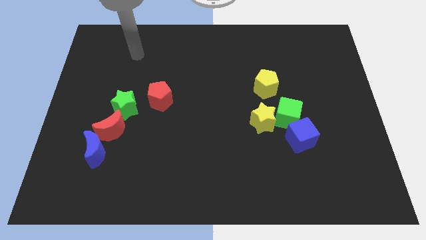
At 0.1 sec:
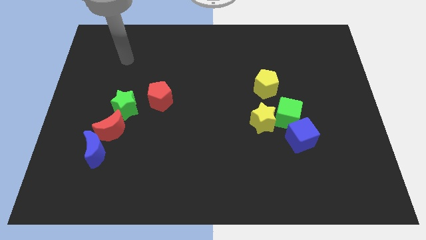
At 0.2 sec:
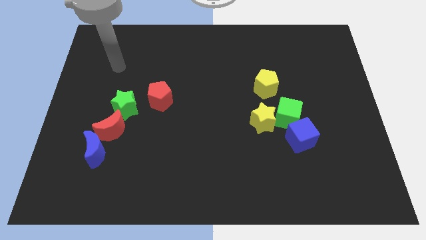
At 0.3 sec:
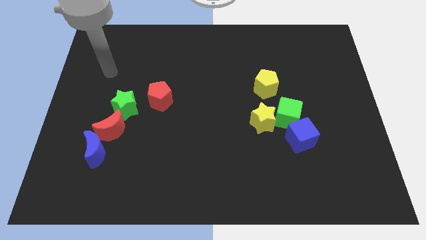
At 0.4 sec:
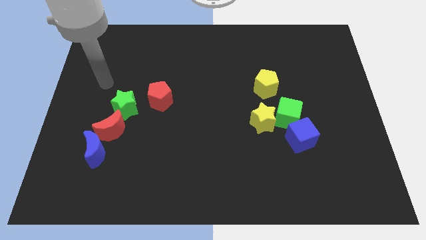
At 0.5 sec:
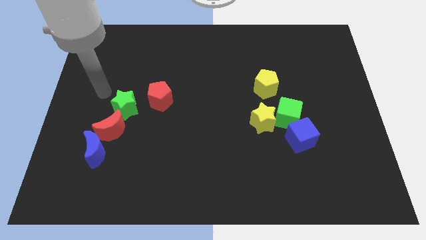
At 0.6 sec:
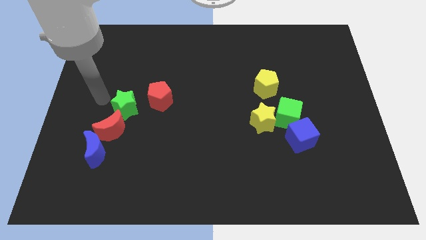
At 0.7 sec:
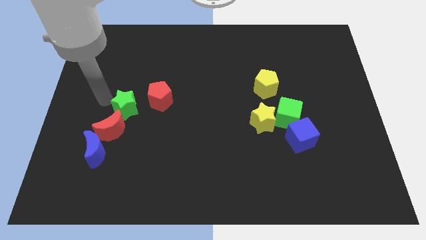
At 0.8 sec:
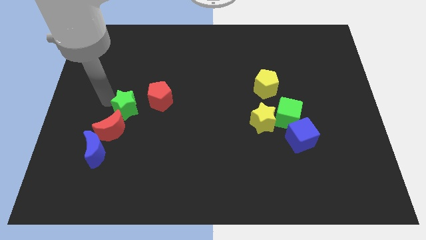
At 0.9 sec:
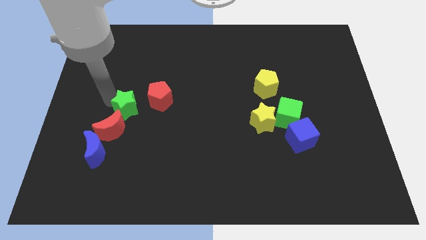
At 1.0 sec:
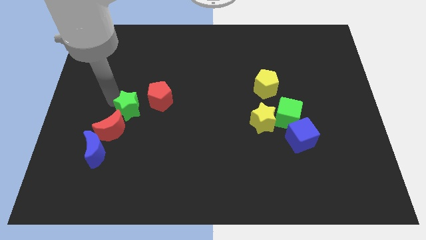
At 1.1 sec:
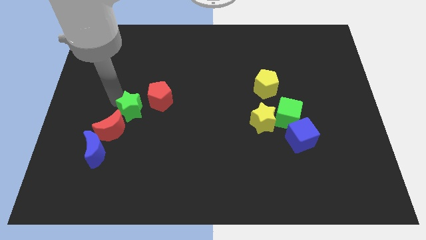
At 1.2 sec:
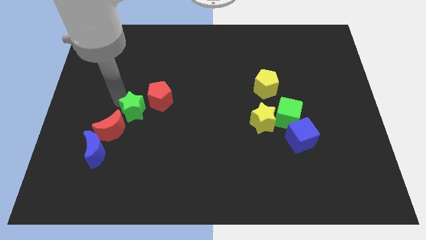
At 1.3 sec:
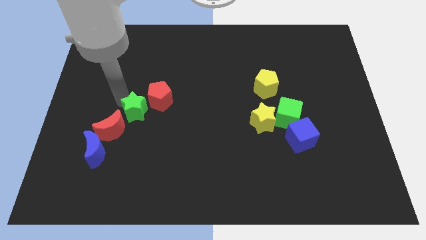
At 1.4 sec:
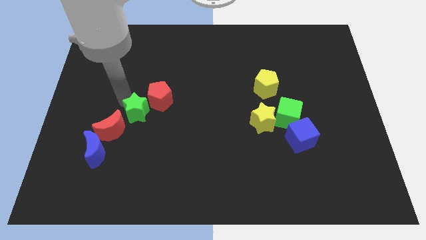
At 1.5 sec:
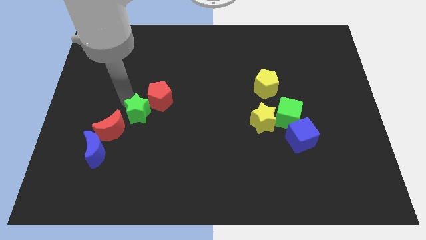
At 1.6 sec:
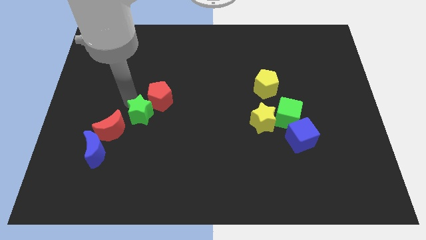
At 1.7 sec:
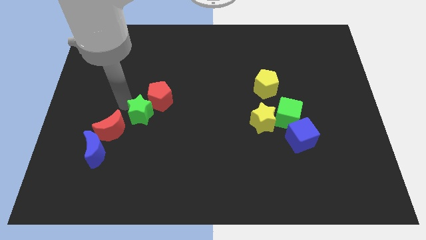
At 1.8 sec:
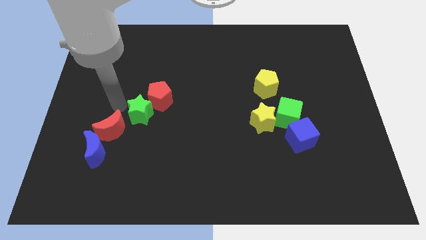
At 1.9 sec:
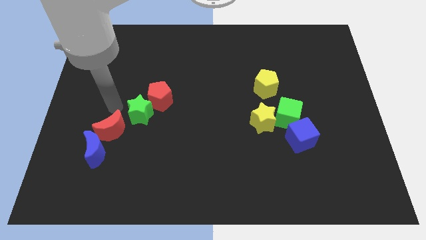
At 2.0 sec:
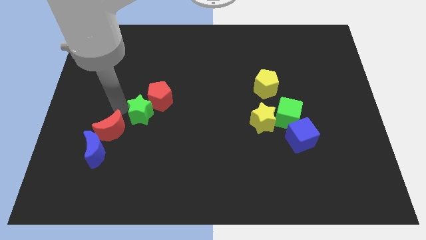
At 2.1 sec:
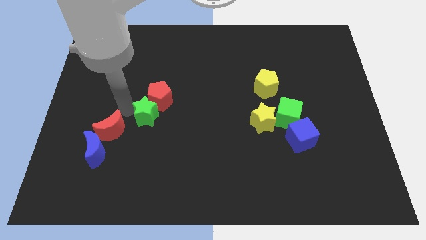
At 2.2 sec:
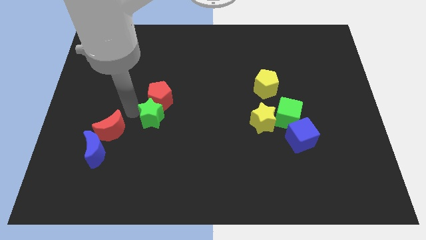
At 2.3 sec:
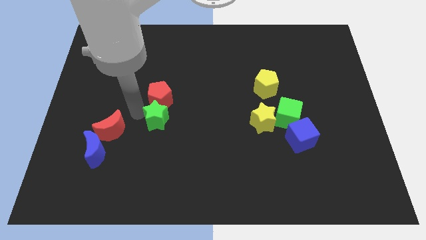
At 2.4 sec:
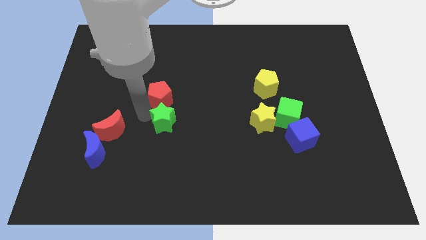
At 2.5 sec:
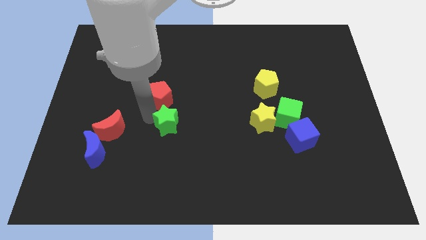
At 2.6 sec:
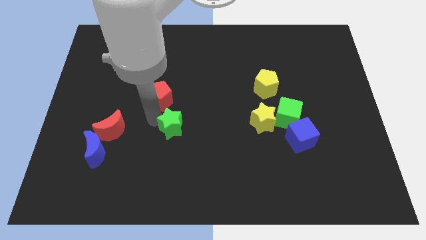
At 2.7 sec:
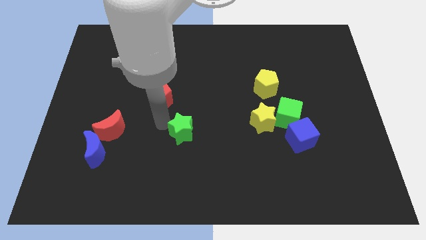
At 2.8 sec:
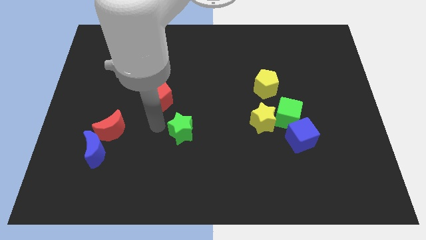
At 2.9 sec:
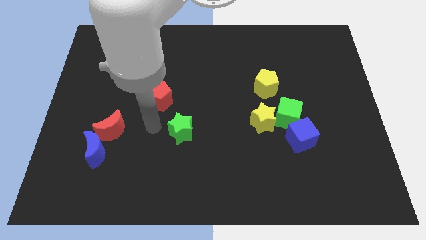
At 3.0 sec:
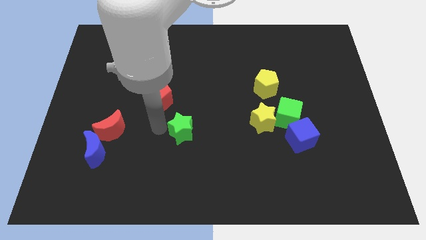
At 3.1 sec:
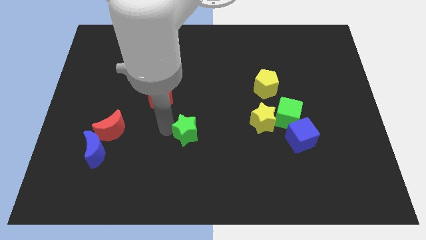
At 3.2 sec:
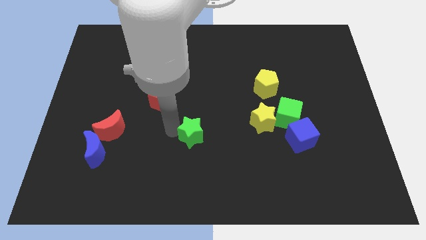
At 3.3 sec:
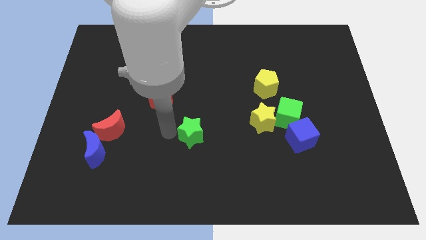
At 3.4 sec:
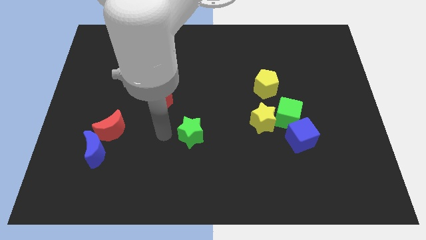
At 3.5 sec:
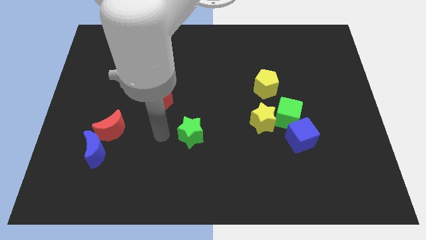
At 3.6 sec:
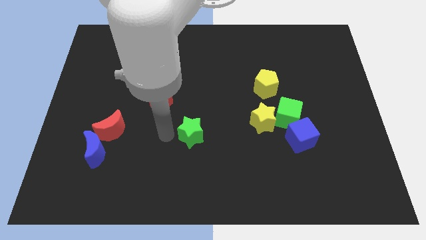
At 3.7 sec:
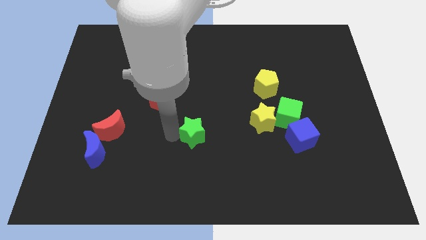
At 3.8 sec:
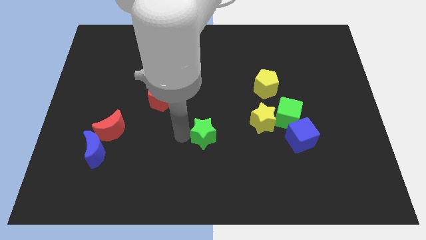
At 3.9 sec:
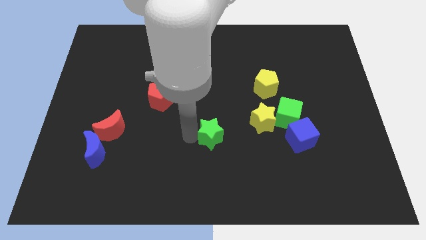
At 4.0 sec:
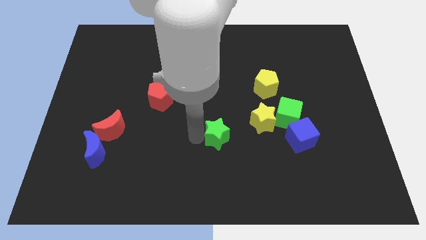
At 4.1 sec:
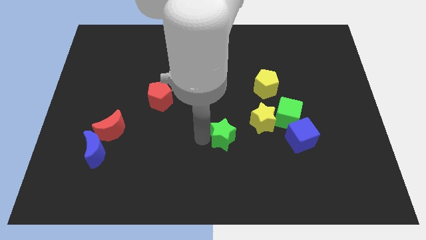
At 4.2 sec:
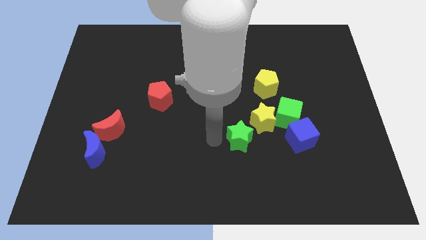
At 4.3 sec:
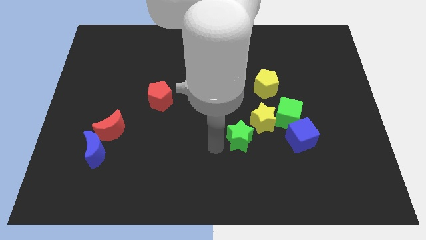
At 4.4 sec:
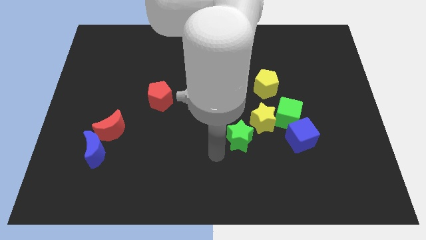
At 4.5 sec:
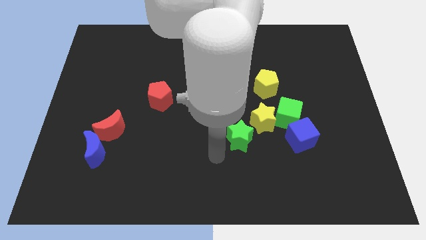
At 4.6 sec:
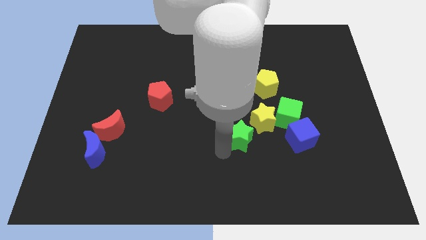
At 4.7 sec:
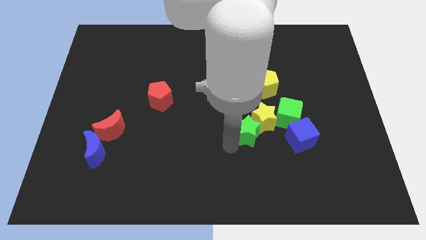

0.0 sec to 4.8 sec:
move the green star to the yellow star

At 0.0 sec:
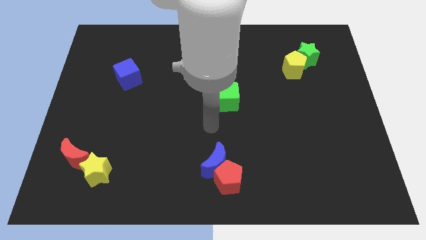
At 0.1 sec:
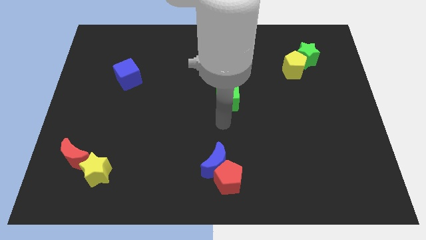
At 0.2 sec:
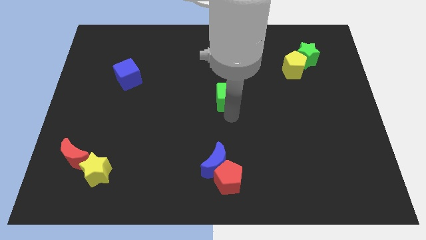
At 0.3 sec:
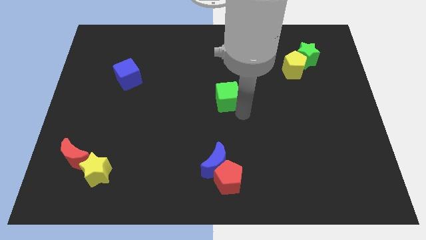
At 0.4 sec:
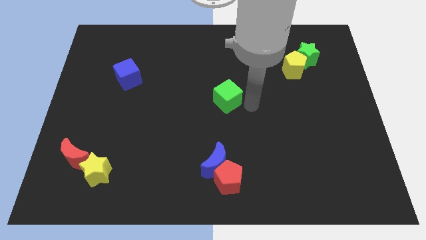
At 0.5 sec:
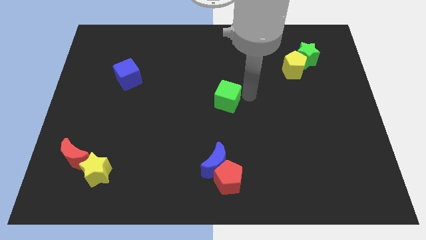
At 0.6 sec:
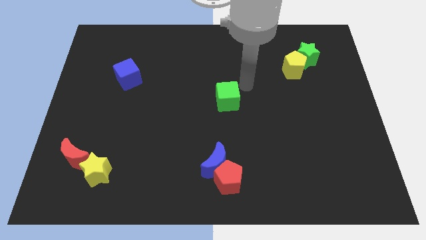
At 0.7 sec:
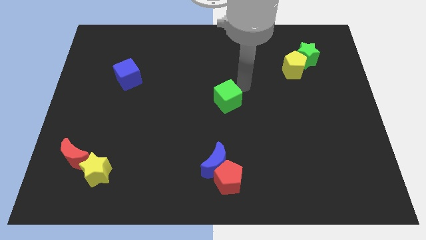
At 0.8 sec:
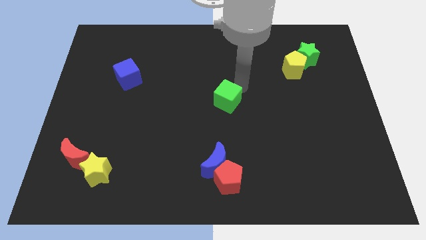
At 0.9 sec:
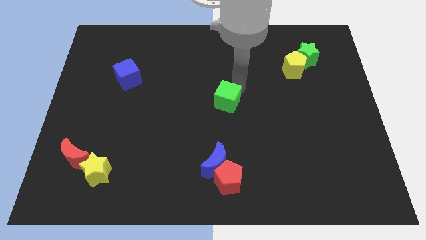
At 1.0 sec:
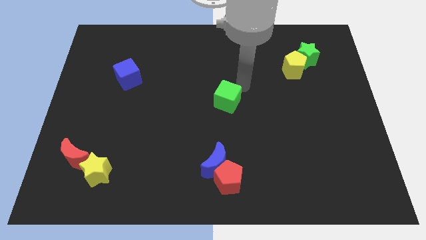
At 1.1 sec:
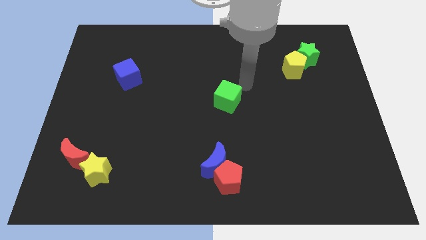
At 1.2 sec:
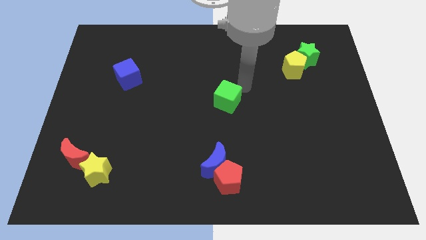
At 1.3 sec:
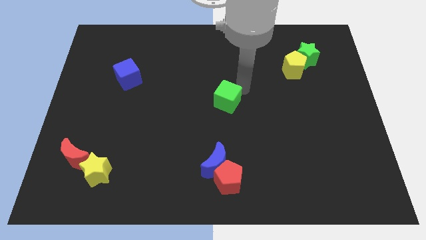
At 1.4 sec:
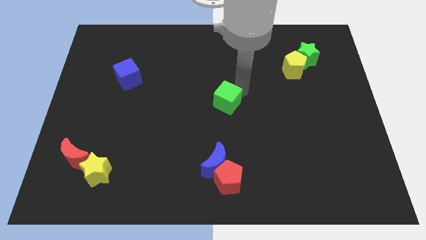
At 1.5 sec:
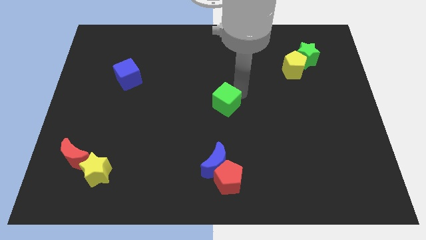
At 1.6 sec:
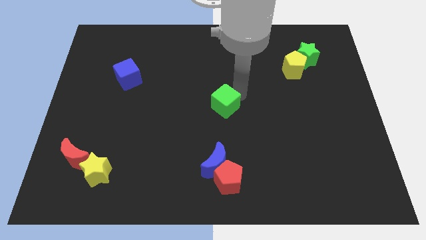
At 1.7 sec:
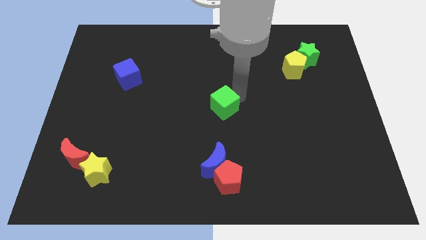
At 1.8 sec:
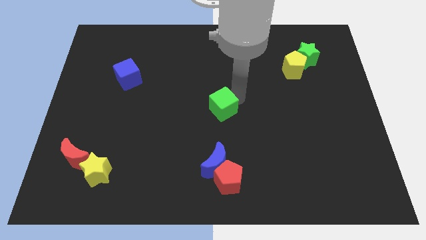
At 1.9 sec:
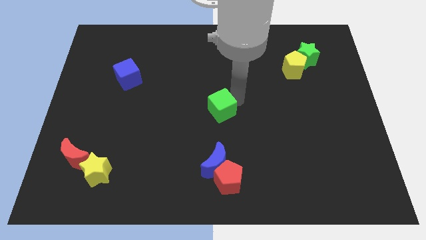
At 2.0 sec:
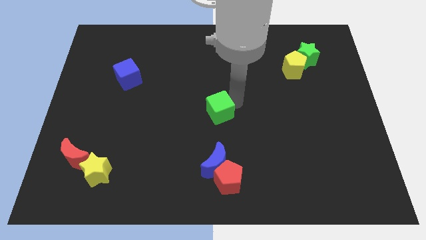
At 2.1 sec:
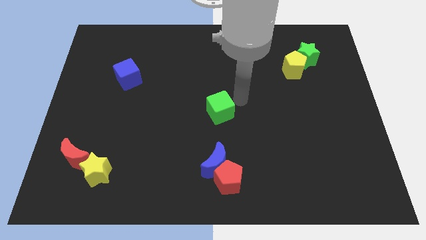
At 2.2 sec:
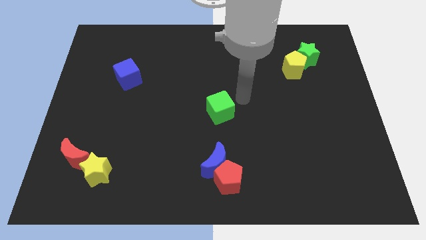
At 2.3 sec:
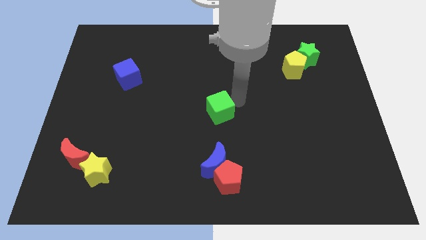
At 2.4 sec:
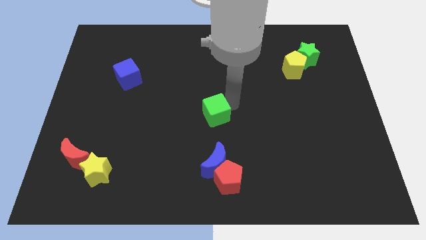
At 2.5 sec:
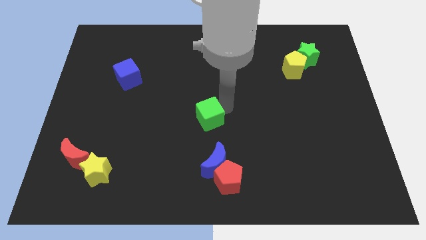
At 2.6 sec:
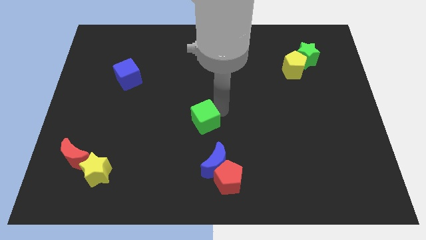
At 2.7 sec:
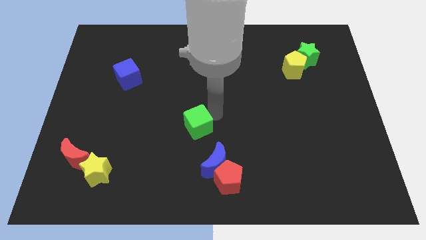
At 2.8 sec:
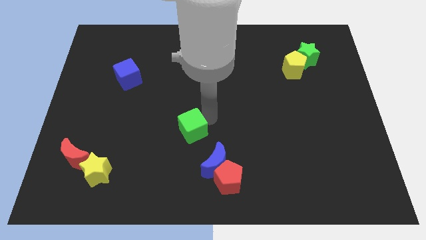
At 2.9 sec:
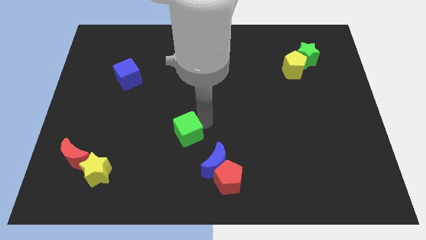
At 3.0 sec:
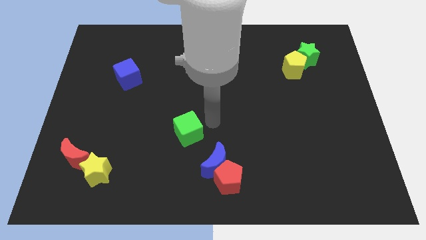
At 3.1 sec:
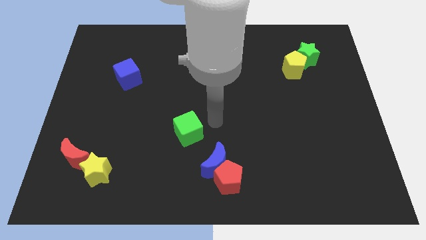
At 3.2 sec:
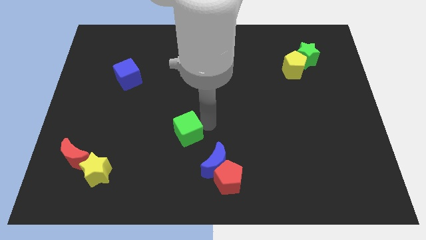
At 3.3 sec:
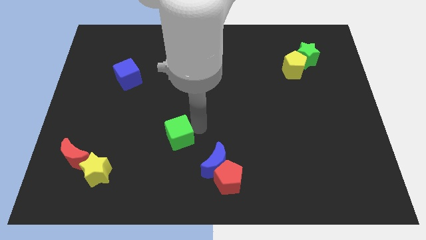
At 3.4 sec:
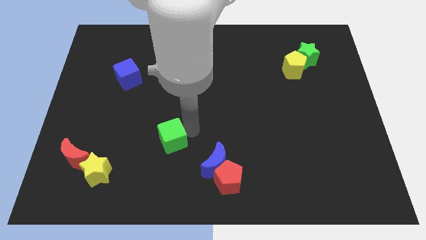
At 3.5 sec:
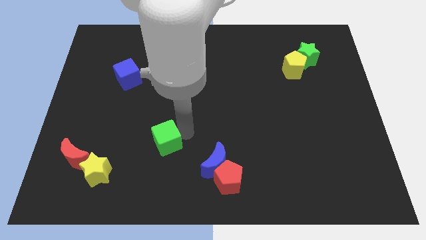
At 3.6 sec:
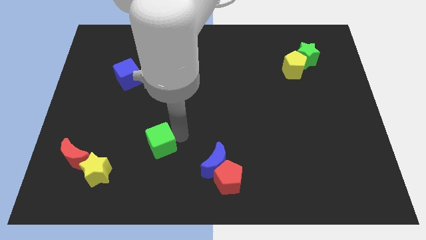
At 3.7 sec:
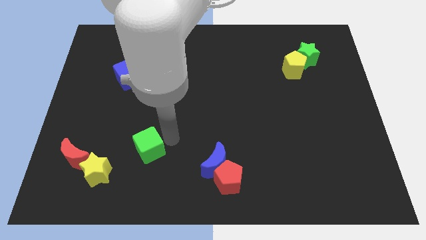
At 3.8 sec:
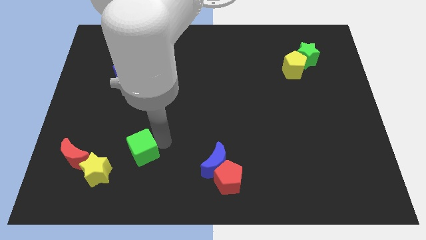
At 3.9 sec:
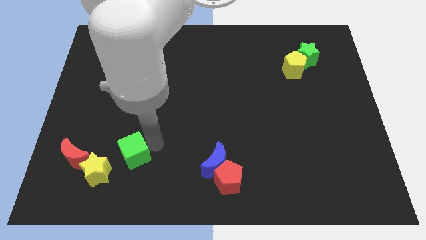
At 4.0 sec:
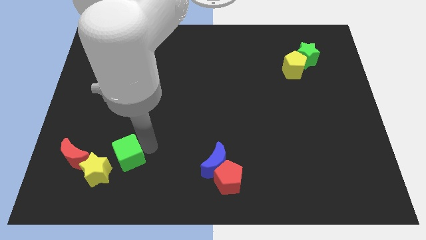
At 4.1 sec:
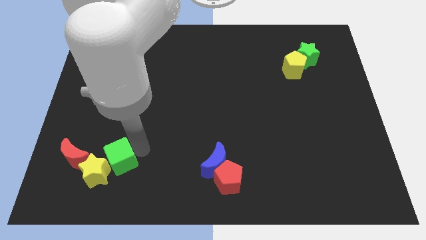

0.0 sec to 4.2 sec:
move the green cube next to the yellow star
